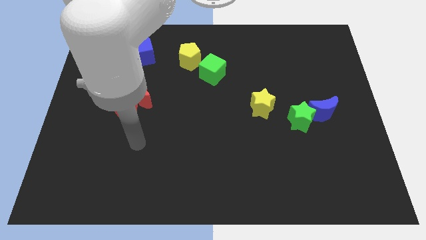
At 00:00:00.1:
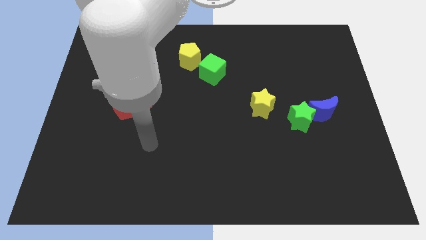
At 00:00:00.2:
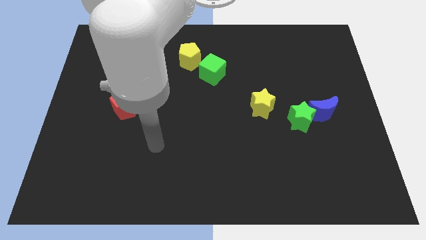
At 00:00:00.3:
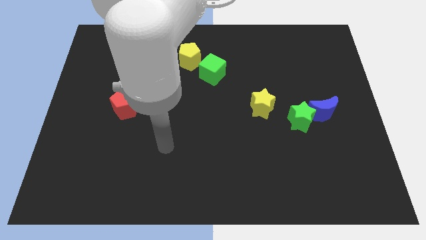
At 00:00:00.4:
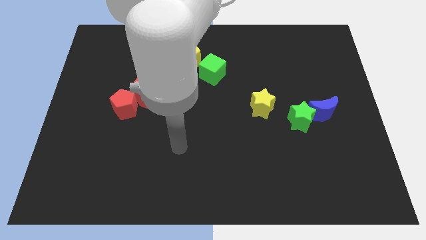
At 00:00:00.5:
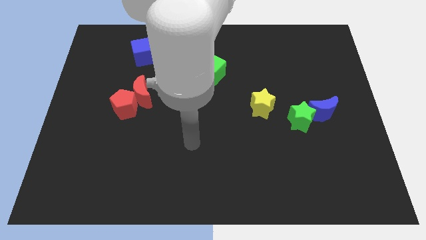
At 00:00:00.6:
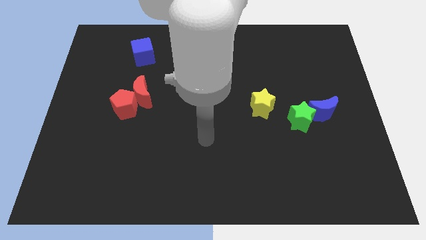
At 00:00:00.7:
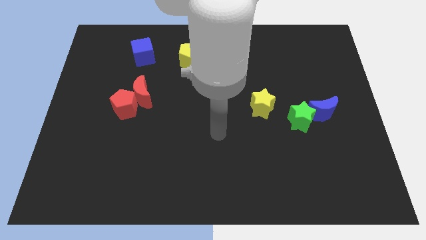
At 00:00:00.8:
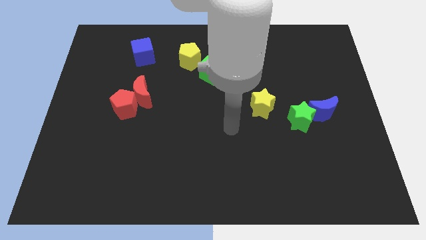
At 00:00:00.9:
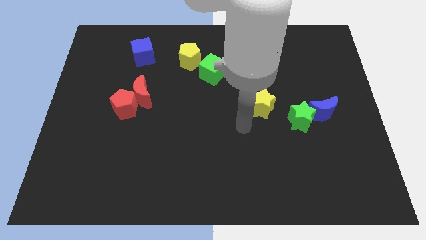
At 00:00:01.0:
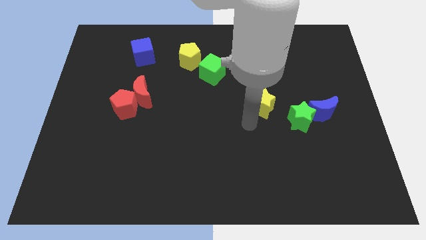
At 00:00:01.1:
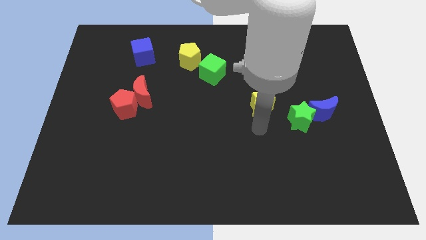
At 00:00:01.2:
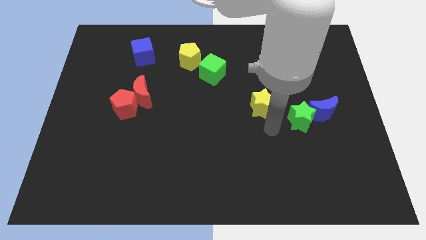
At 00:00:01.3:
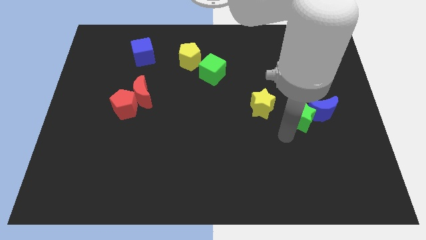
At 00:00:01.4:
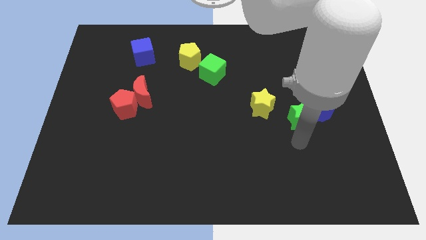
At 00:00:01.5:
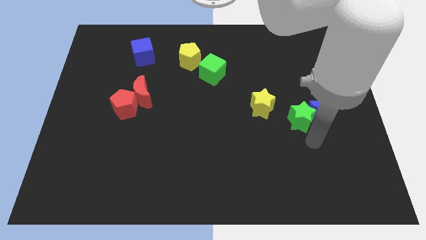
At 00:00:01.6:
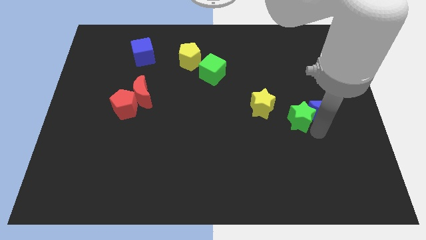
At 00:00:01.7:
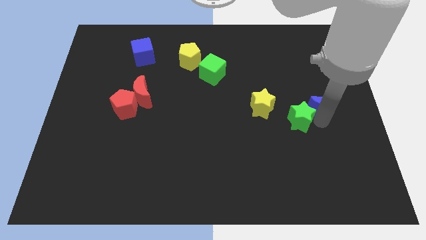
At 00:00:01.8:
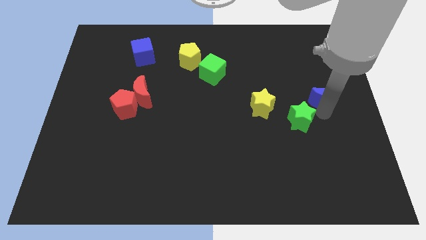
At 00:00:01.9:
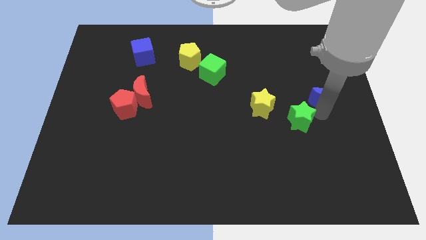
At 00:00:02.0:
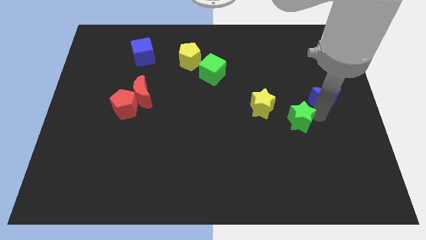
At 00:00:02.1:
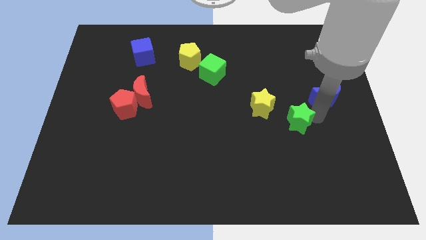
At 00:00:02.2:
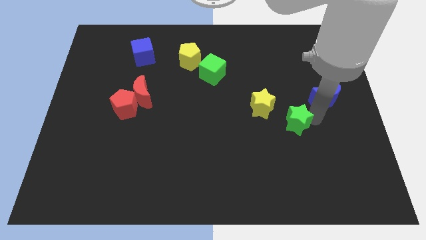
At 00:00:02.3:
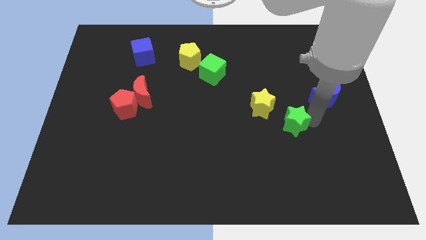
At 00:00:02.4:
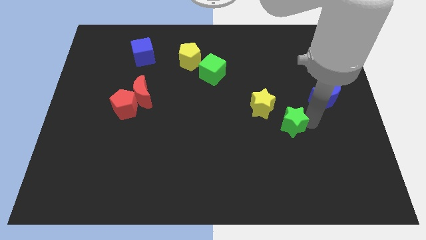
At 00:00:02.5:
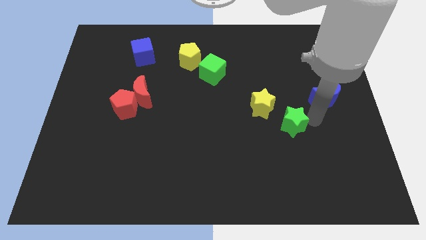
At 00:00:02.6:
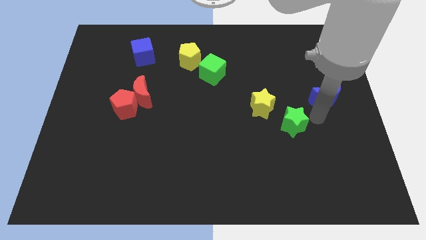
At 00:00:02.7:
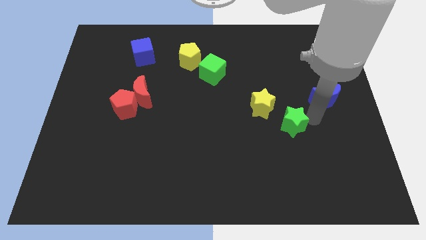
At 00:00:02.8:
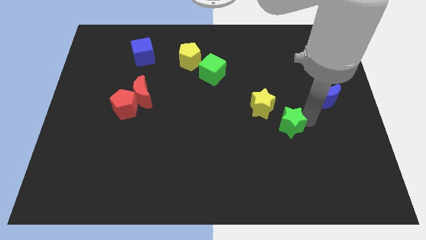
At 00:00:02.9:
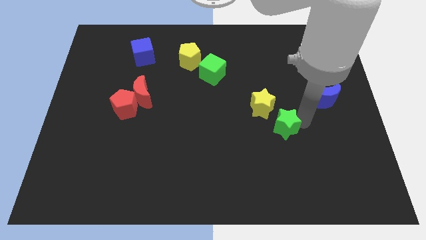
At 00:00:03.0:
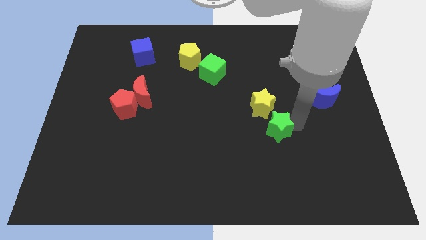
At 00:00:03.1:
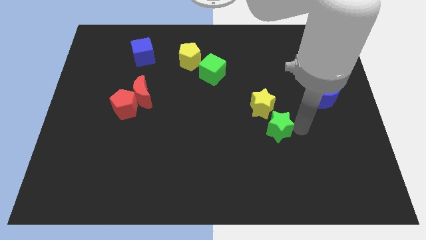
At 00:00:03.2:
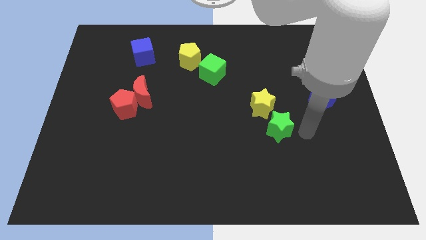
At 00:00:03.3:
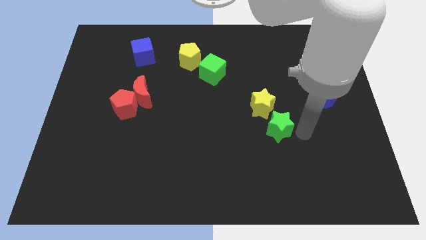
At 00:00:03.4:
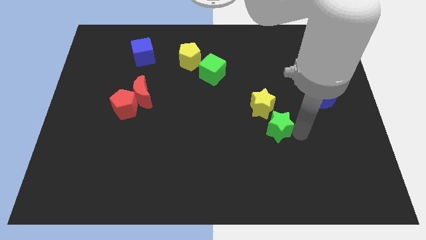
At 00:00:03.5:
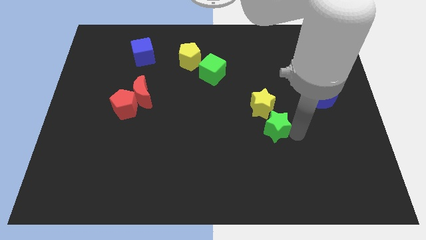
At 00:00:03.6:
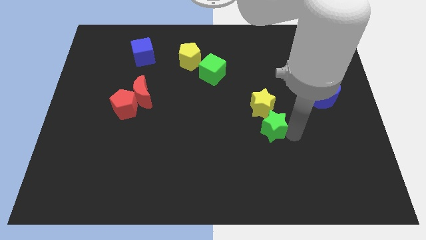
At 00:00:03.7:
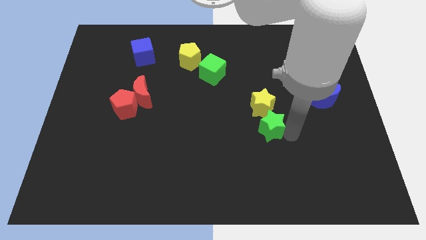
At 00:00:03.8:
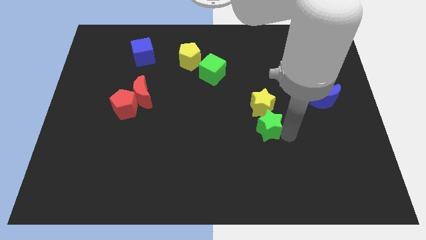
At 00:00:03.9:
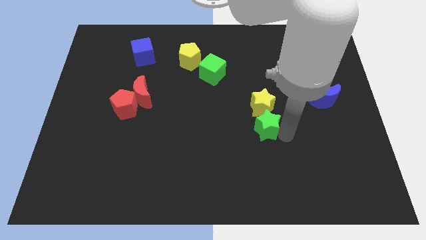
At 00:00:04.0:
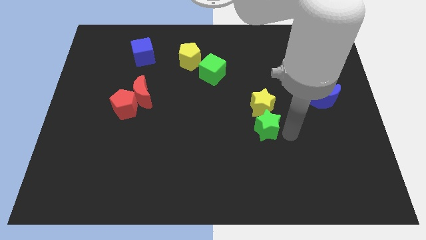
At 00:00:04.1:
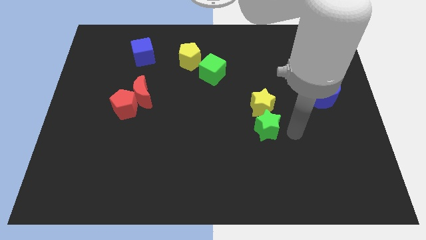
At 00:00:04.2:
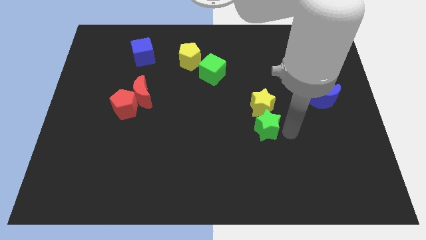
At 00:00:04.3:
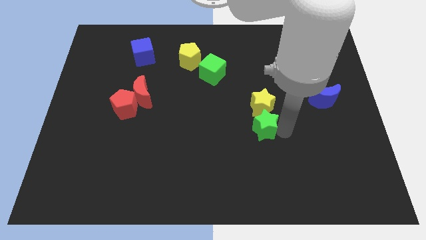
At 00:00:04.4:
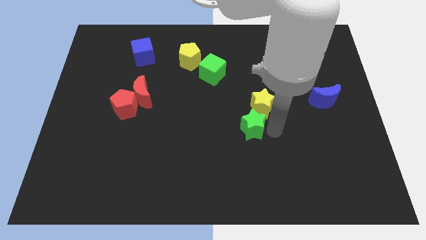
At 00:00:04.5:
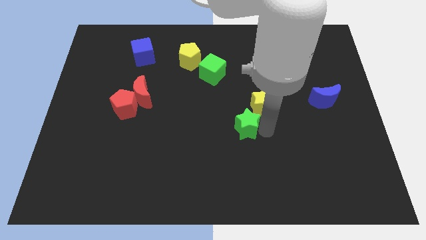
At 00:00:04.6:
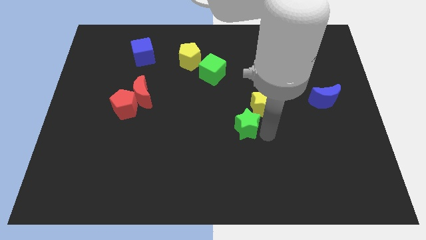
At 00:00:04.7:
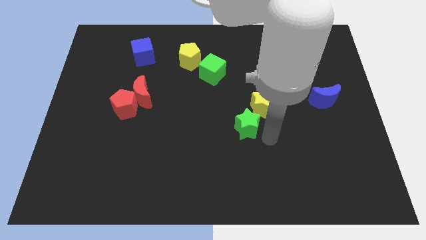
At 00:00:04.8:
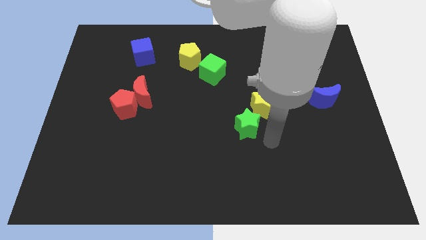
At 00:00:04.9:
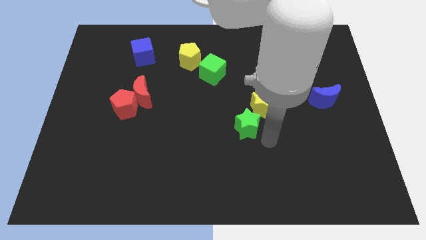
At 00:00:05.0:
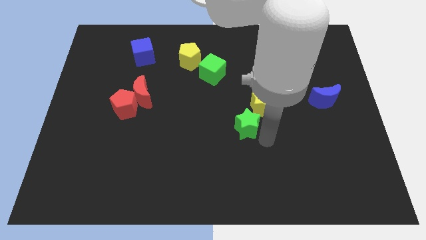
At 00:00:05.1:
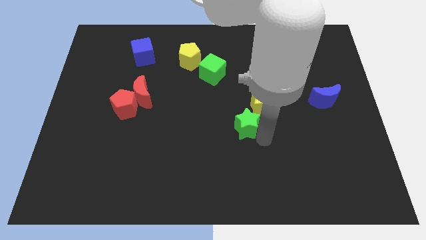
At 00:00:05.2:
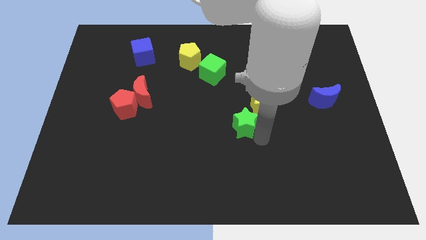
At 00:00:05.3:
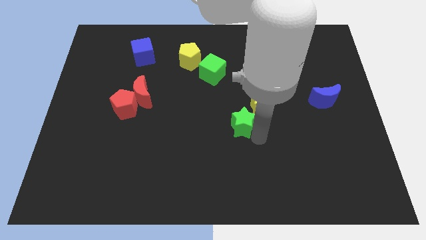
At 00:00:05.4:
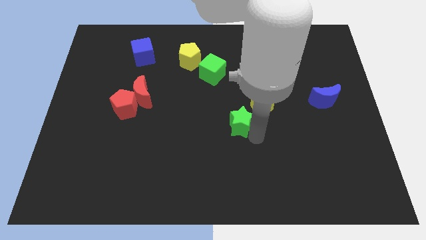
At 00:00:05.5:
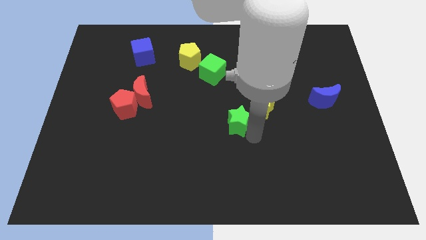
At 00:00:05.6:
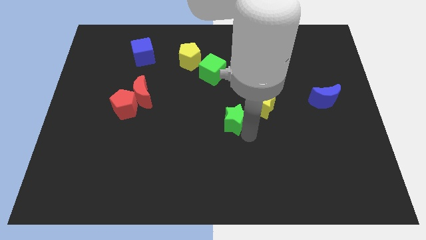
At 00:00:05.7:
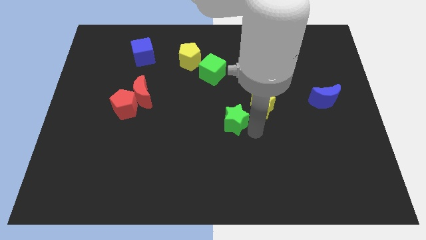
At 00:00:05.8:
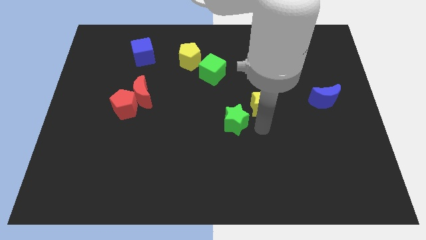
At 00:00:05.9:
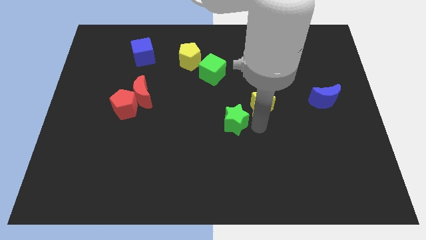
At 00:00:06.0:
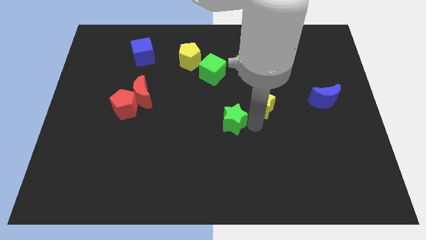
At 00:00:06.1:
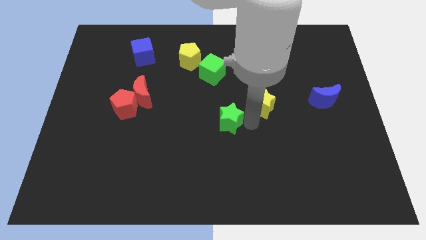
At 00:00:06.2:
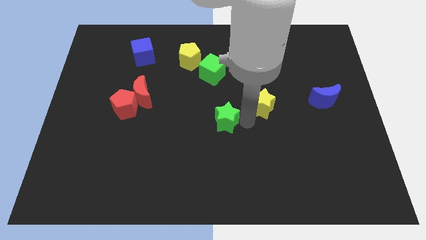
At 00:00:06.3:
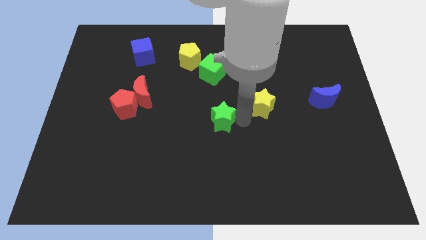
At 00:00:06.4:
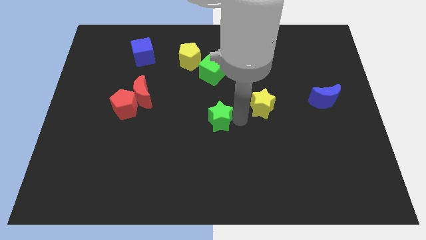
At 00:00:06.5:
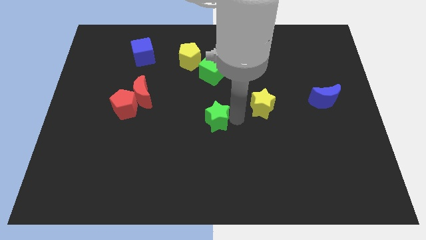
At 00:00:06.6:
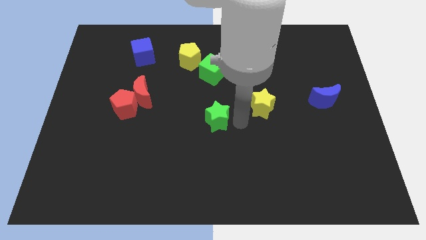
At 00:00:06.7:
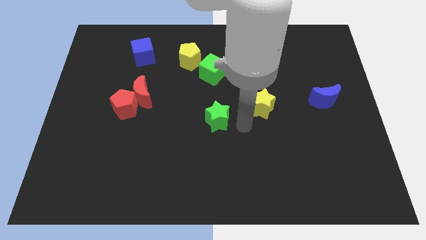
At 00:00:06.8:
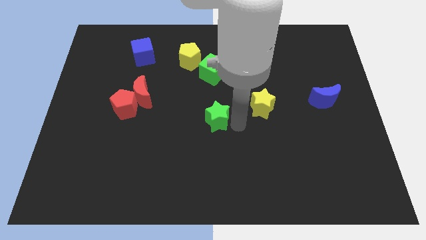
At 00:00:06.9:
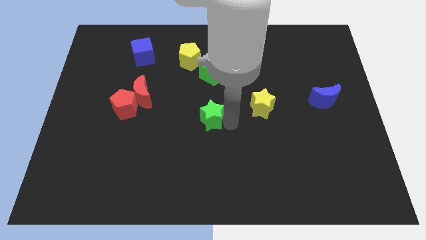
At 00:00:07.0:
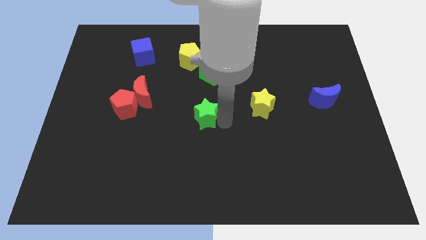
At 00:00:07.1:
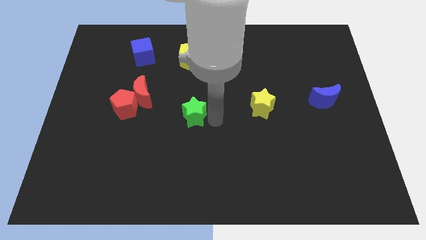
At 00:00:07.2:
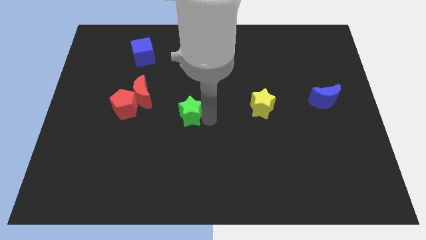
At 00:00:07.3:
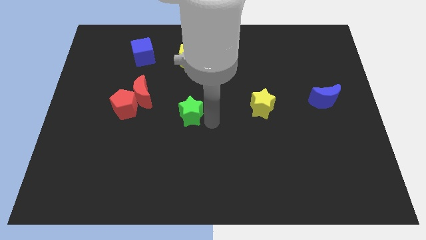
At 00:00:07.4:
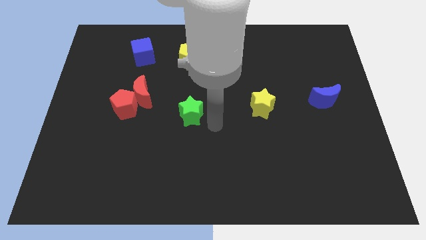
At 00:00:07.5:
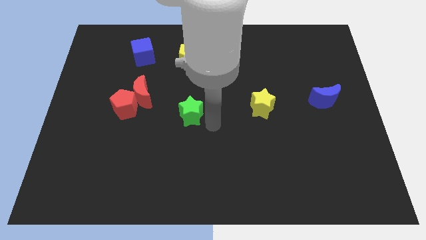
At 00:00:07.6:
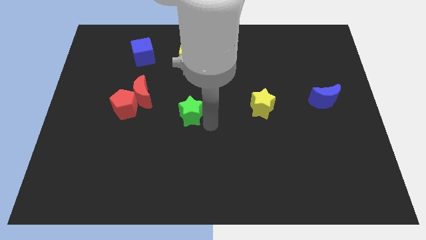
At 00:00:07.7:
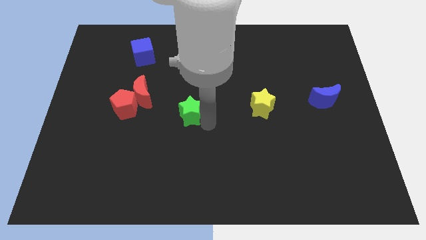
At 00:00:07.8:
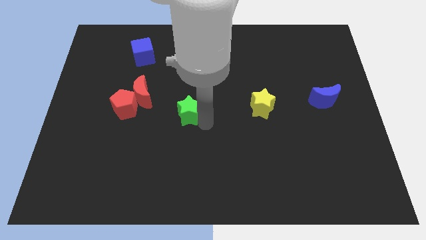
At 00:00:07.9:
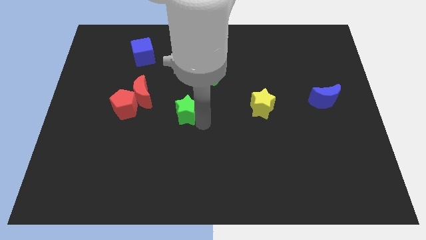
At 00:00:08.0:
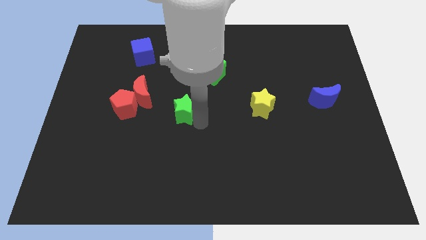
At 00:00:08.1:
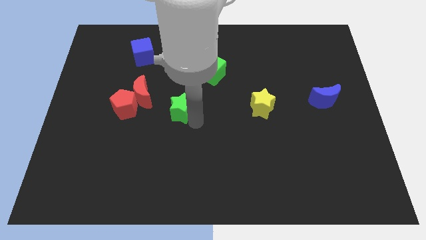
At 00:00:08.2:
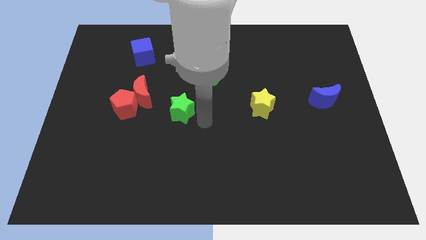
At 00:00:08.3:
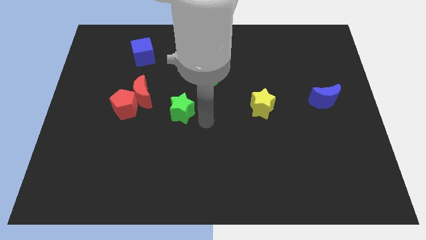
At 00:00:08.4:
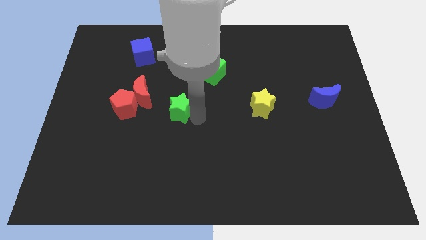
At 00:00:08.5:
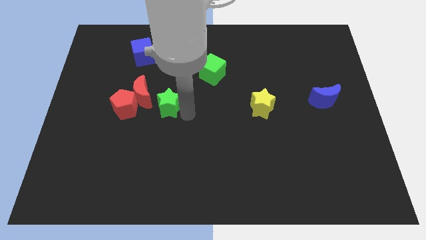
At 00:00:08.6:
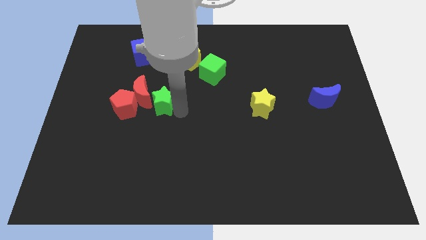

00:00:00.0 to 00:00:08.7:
slide the green star to the red moon
